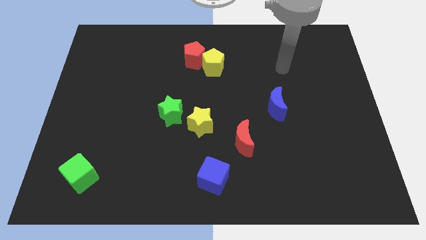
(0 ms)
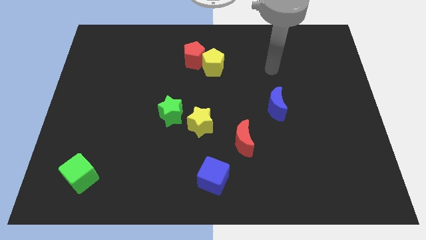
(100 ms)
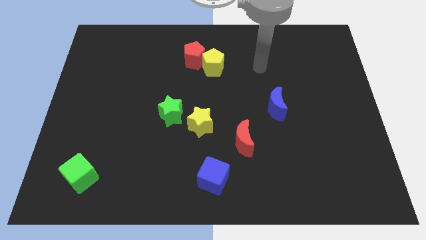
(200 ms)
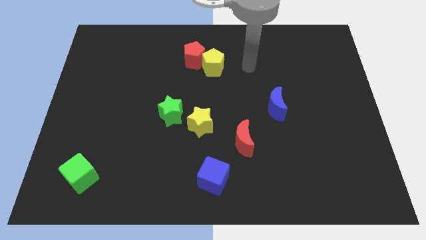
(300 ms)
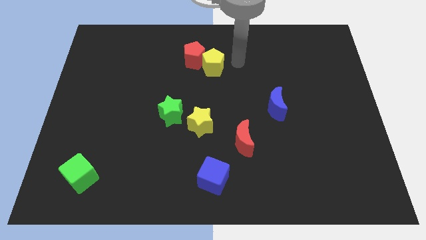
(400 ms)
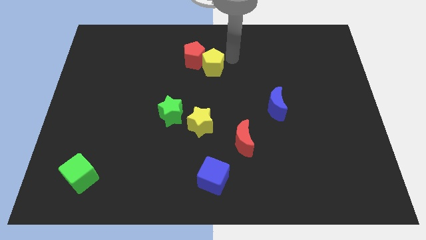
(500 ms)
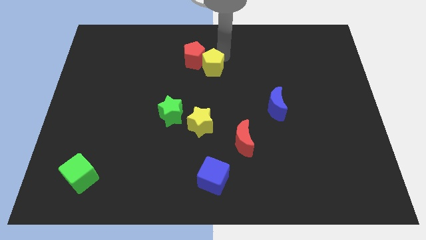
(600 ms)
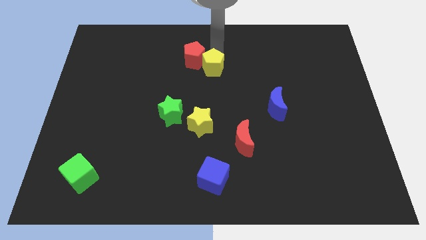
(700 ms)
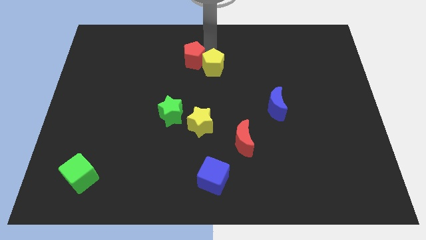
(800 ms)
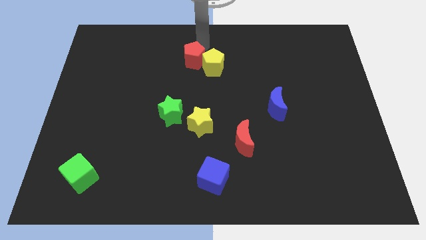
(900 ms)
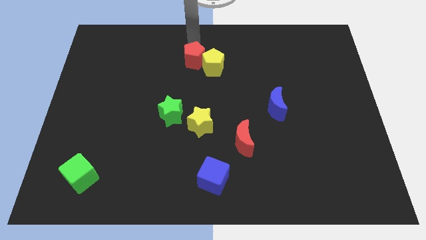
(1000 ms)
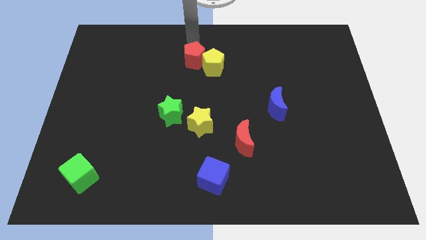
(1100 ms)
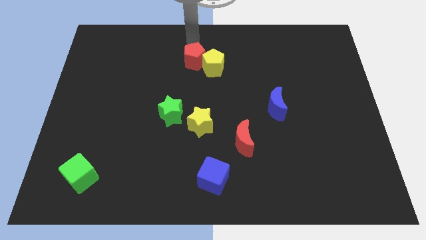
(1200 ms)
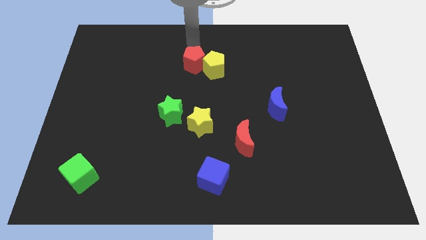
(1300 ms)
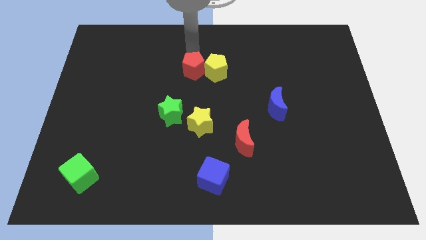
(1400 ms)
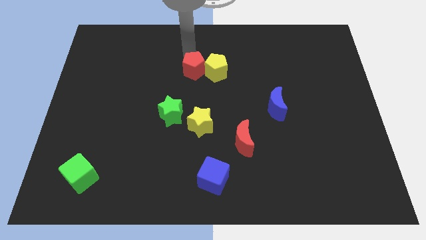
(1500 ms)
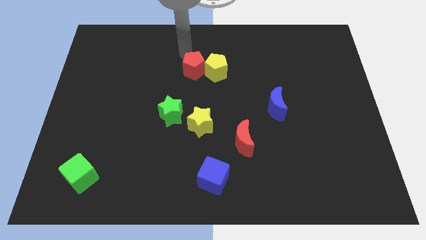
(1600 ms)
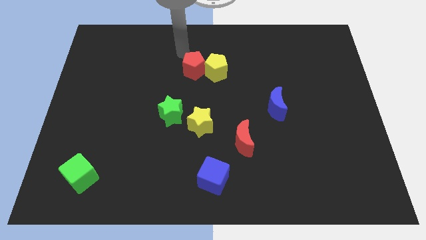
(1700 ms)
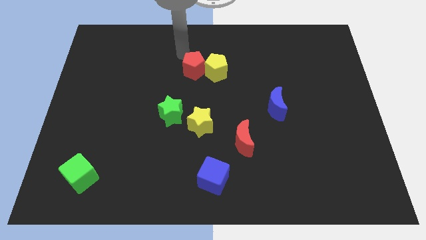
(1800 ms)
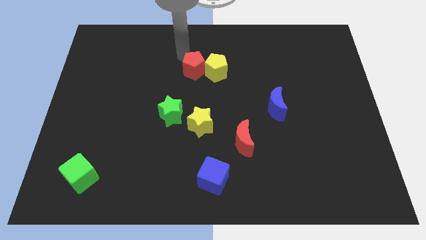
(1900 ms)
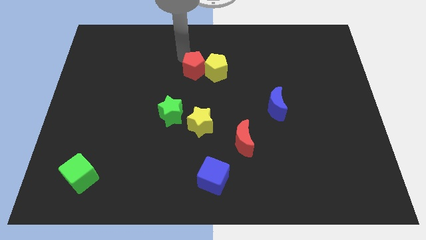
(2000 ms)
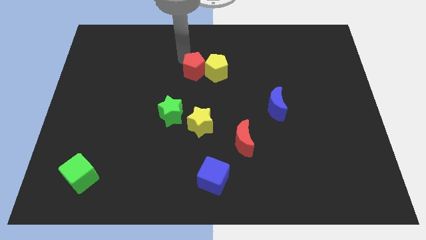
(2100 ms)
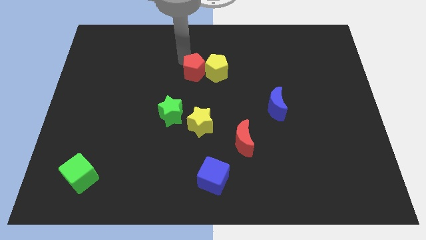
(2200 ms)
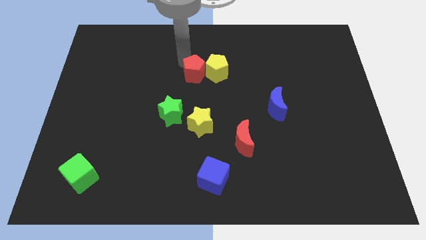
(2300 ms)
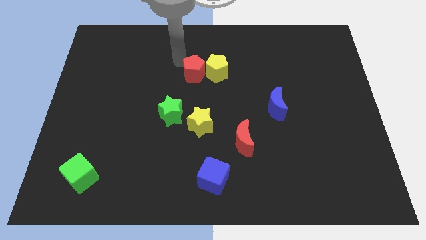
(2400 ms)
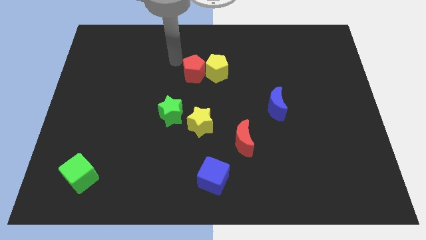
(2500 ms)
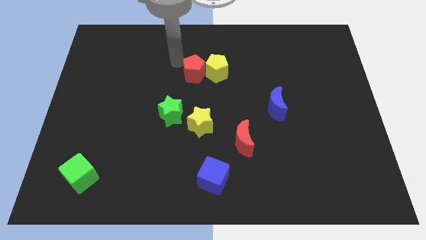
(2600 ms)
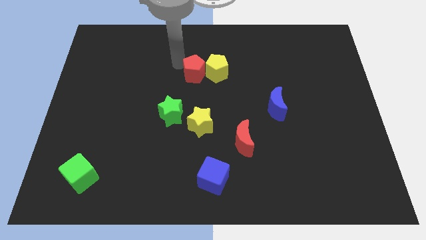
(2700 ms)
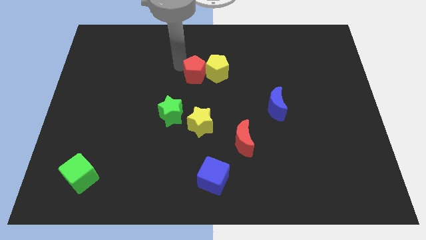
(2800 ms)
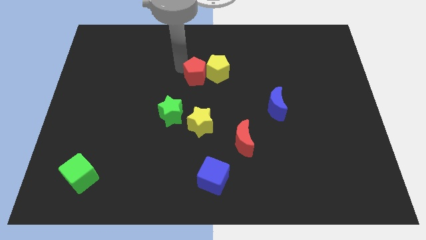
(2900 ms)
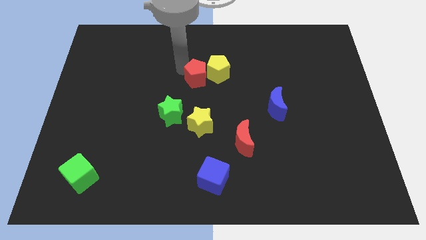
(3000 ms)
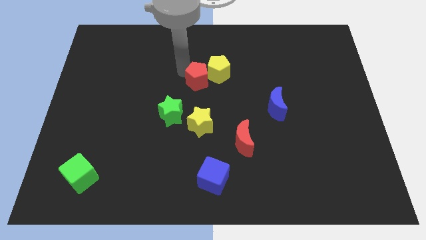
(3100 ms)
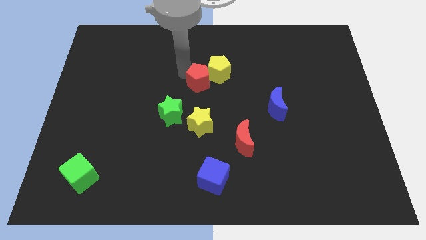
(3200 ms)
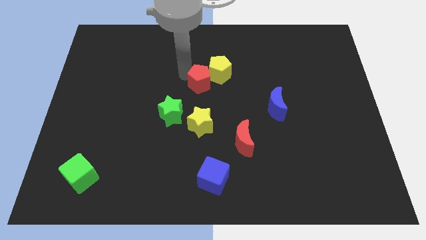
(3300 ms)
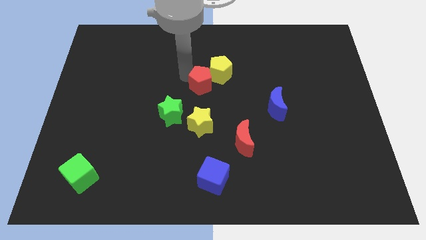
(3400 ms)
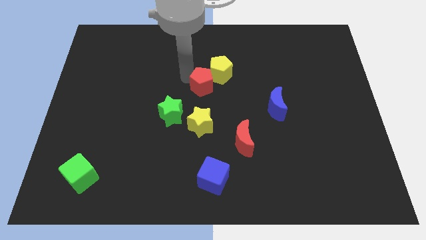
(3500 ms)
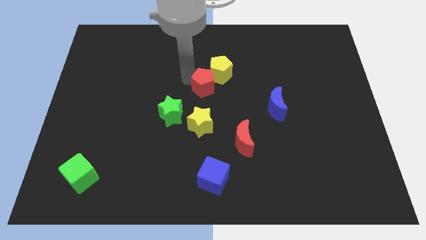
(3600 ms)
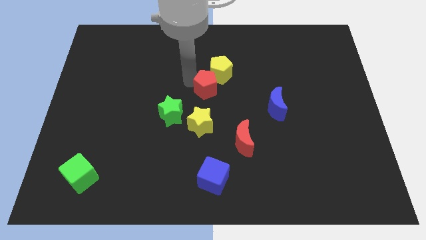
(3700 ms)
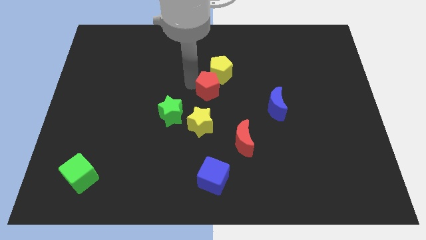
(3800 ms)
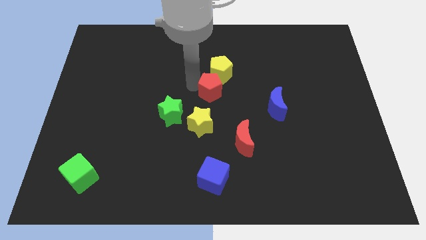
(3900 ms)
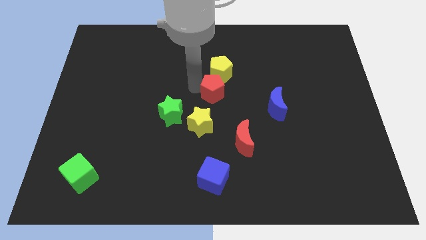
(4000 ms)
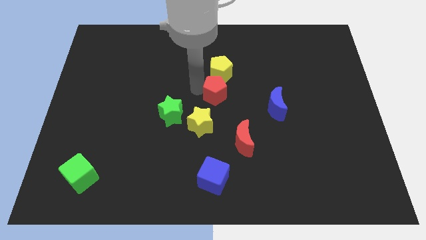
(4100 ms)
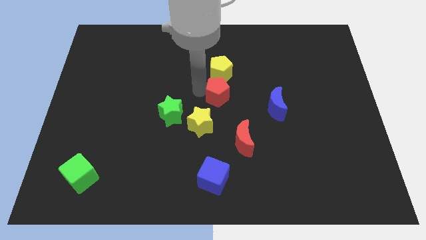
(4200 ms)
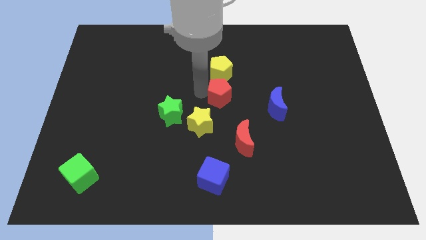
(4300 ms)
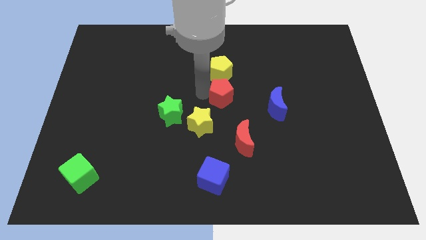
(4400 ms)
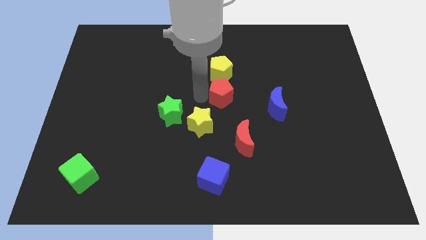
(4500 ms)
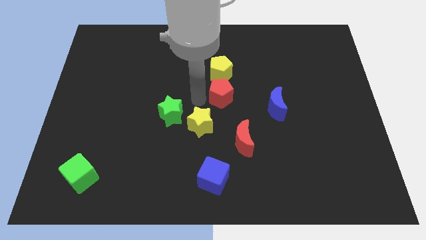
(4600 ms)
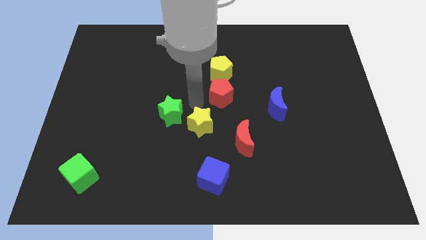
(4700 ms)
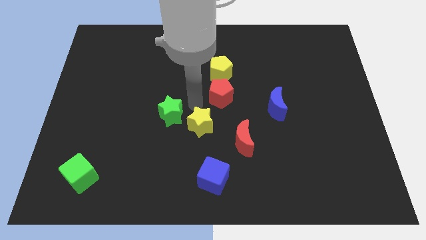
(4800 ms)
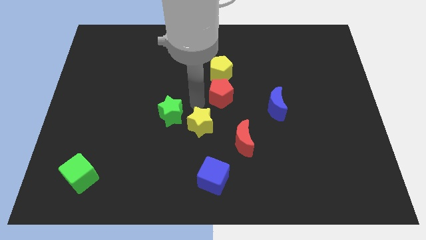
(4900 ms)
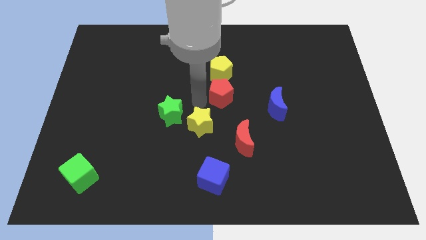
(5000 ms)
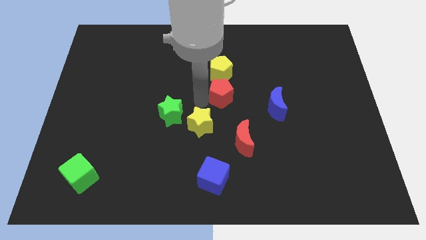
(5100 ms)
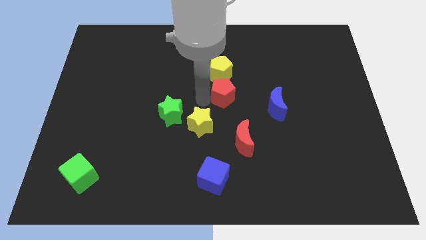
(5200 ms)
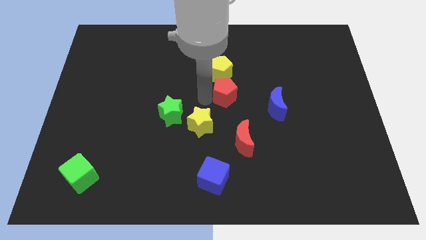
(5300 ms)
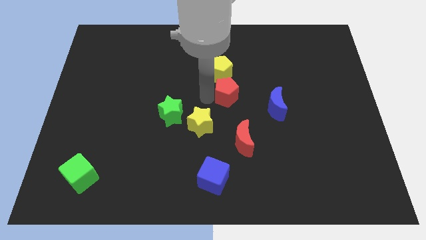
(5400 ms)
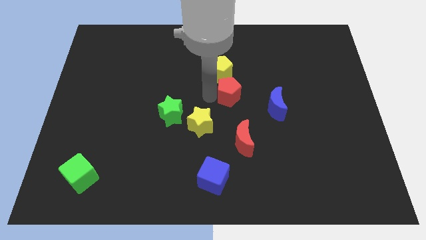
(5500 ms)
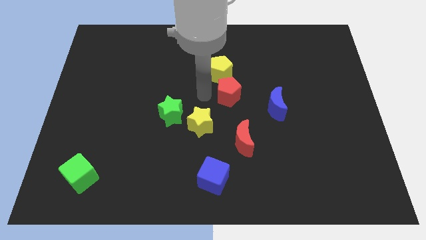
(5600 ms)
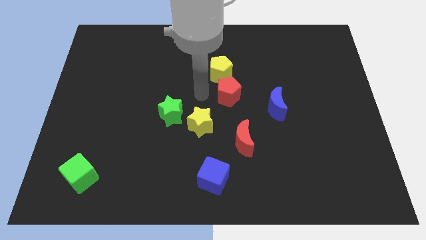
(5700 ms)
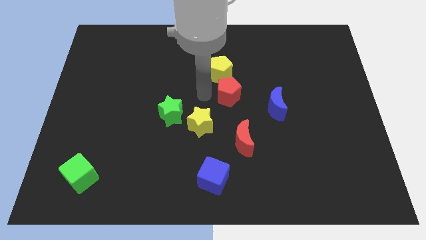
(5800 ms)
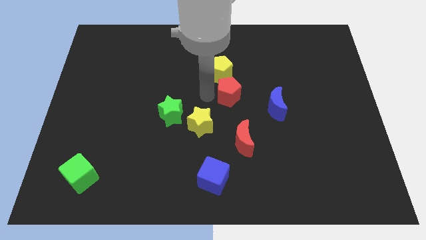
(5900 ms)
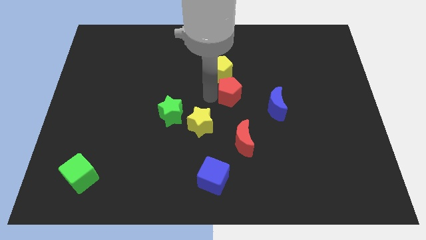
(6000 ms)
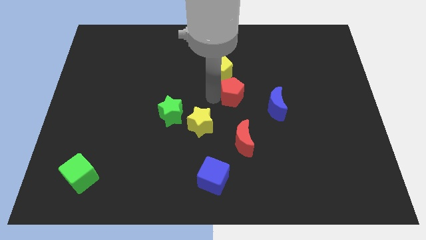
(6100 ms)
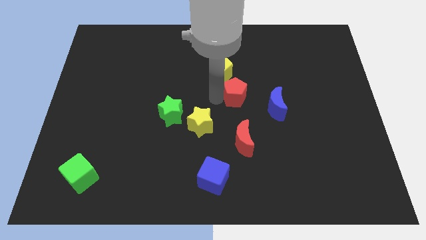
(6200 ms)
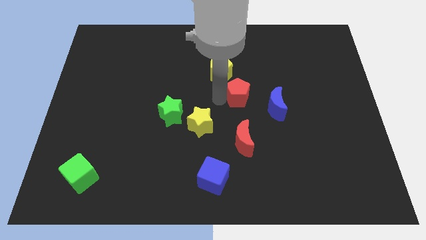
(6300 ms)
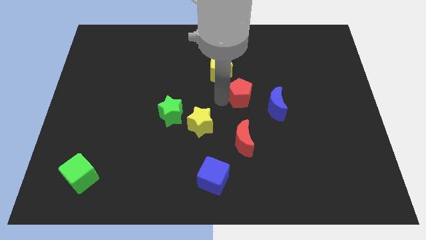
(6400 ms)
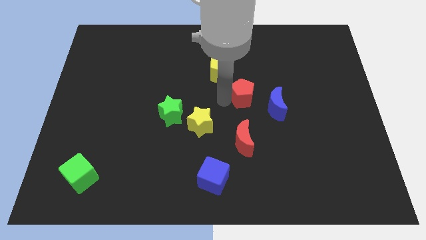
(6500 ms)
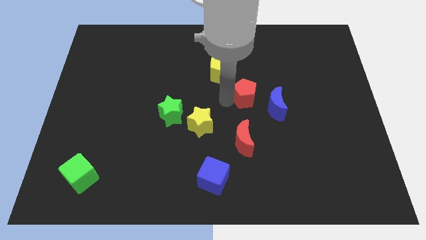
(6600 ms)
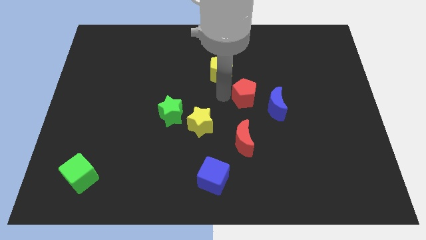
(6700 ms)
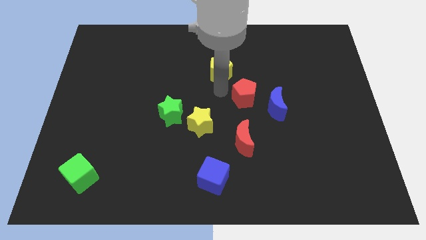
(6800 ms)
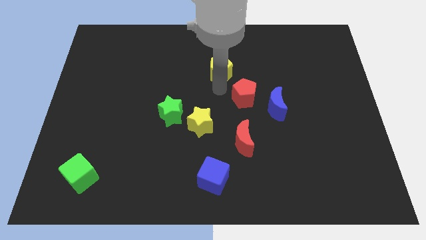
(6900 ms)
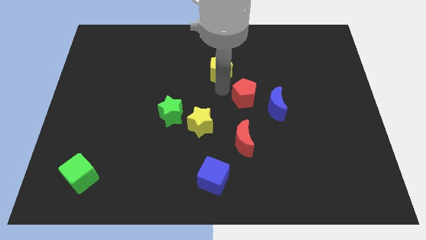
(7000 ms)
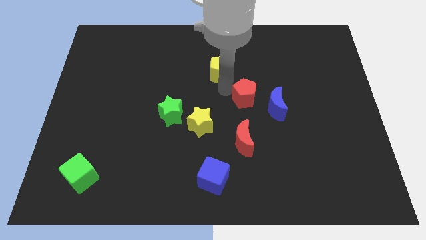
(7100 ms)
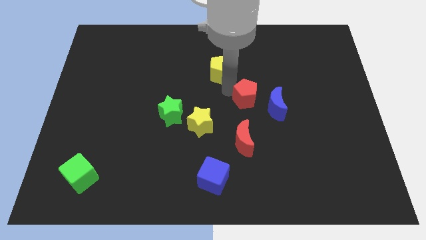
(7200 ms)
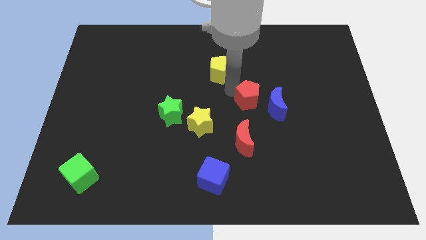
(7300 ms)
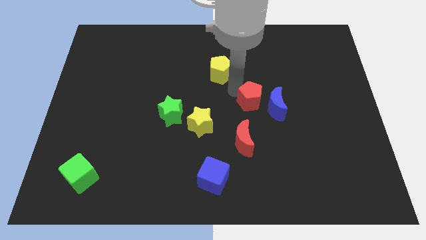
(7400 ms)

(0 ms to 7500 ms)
slide the red pentagon to the blue moon
